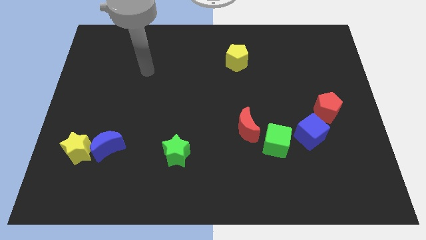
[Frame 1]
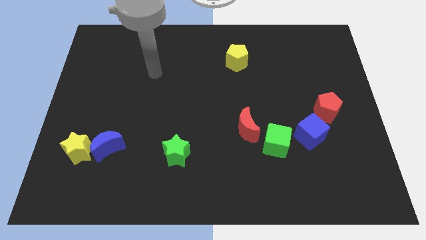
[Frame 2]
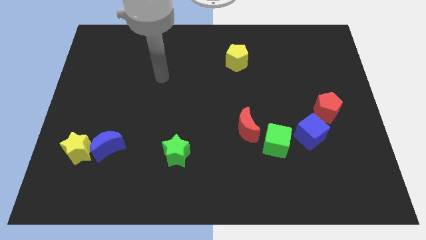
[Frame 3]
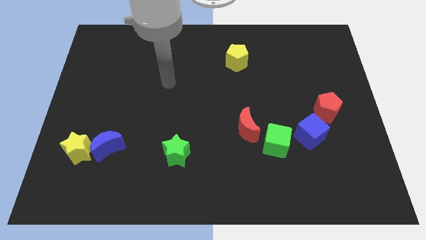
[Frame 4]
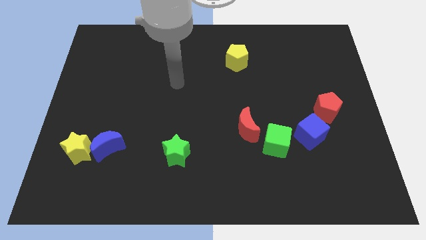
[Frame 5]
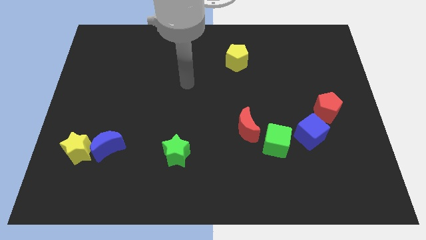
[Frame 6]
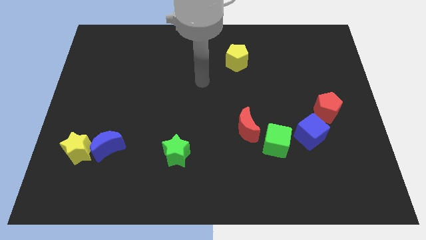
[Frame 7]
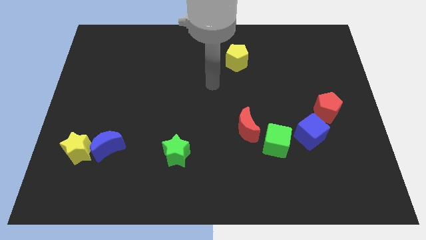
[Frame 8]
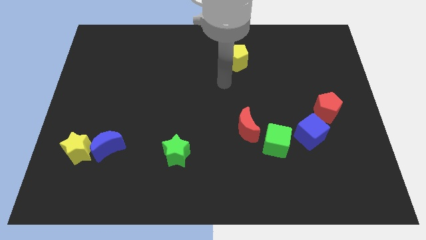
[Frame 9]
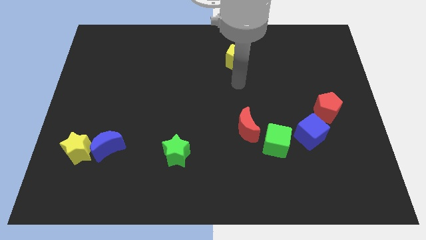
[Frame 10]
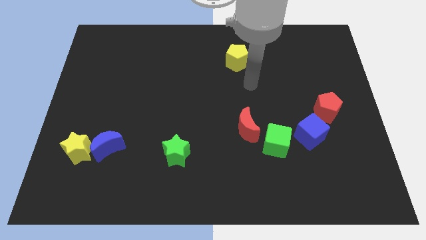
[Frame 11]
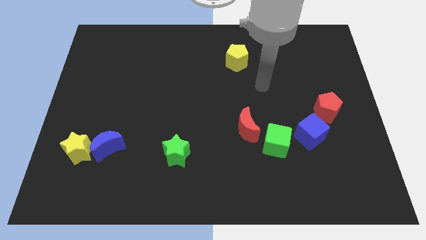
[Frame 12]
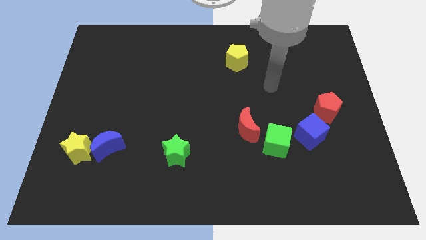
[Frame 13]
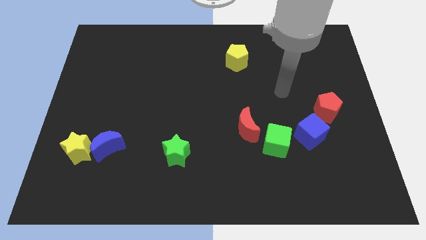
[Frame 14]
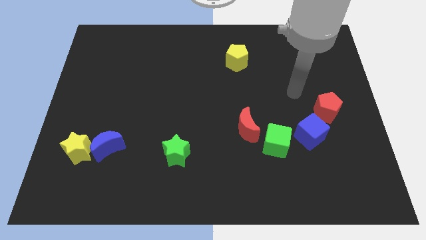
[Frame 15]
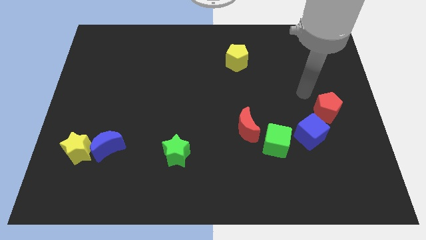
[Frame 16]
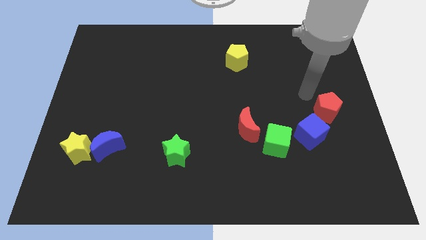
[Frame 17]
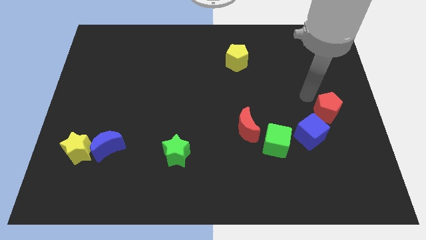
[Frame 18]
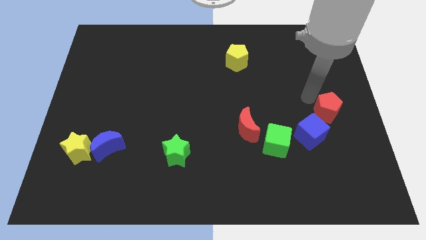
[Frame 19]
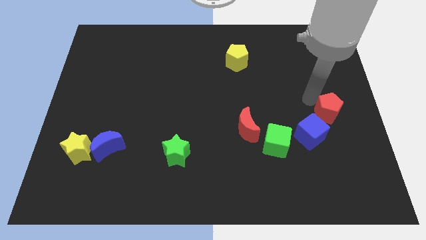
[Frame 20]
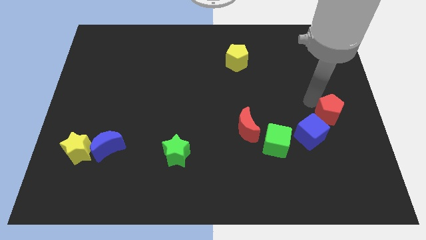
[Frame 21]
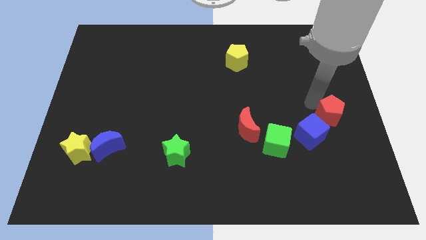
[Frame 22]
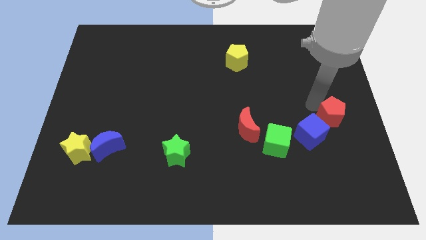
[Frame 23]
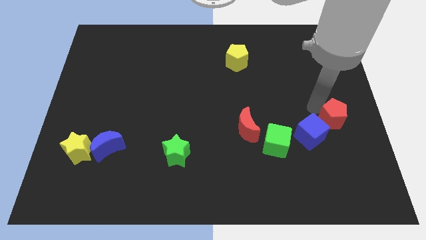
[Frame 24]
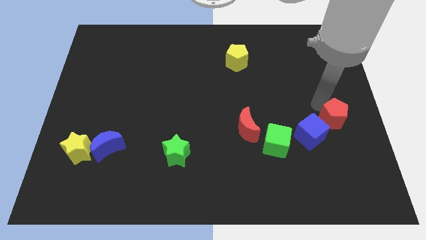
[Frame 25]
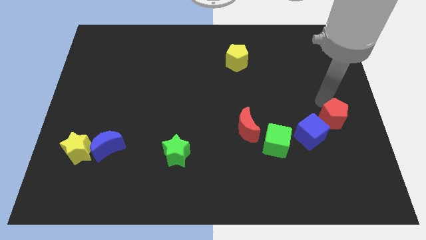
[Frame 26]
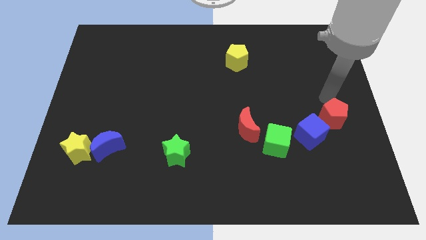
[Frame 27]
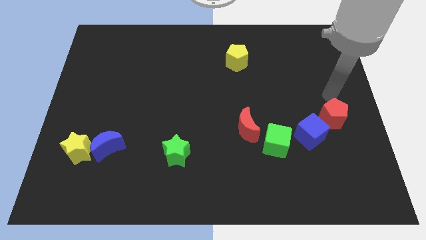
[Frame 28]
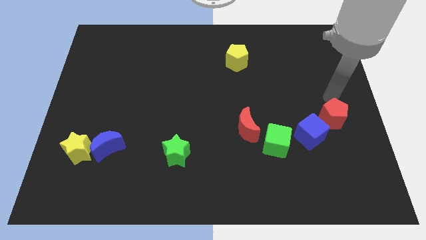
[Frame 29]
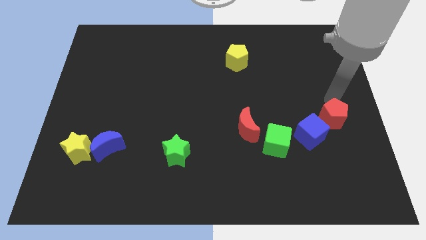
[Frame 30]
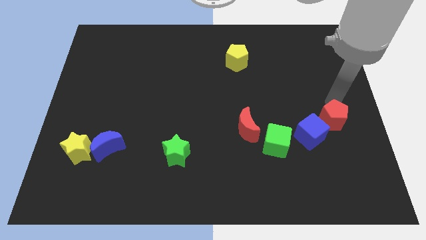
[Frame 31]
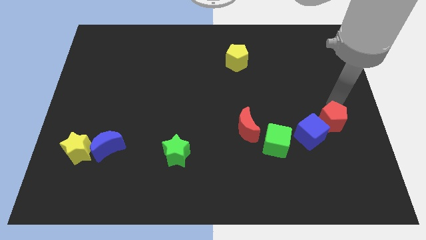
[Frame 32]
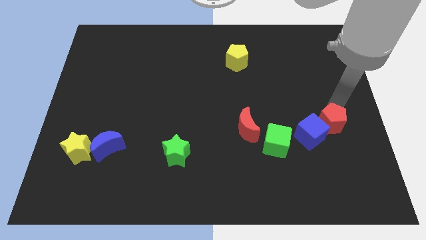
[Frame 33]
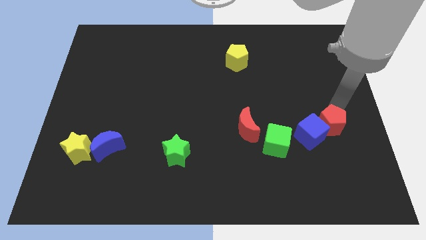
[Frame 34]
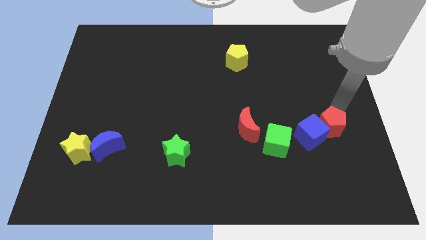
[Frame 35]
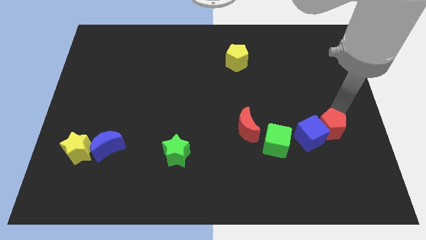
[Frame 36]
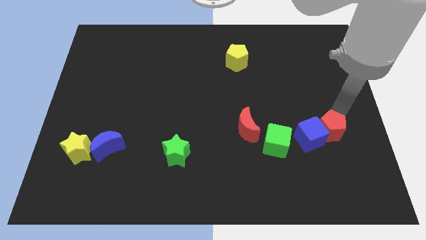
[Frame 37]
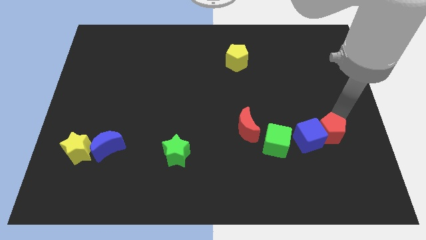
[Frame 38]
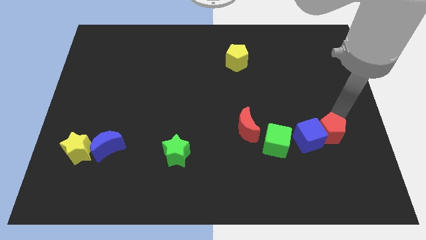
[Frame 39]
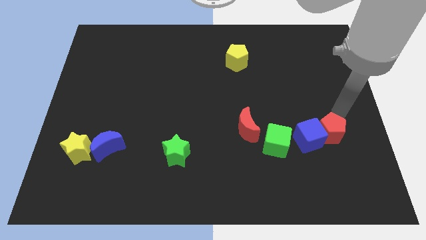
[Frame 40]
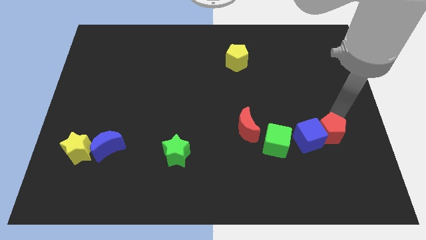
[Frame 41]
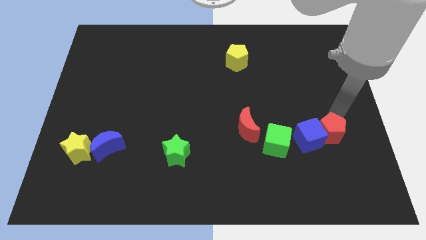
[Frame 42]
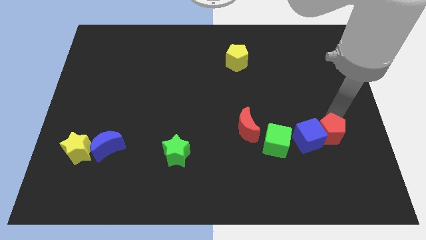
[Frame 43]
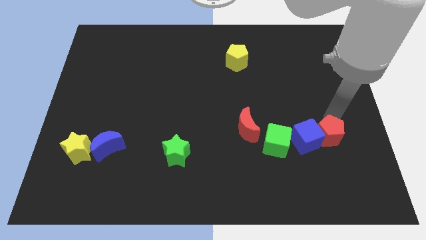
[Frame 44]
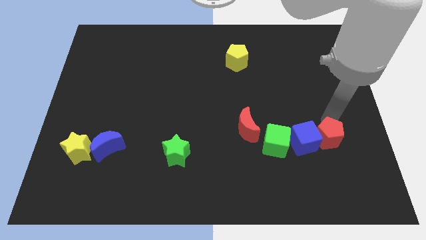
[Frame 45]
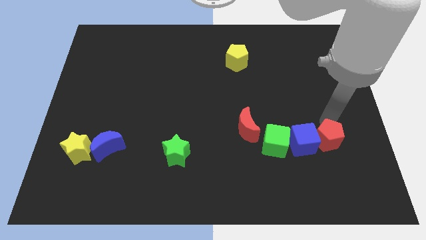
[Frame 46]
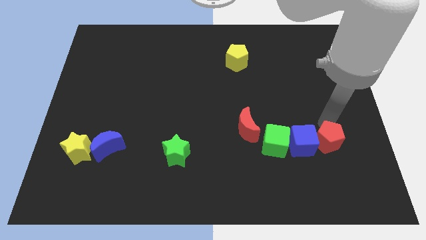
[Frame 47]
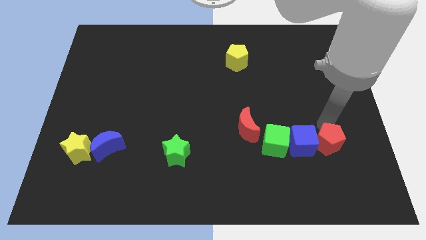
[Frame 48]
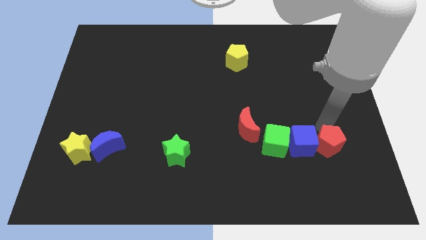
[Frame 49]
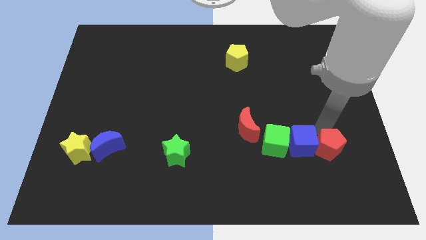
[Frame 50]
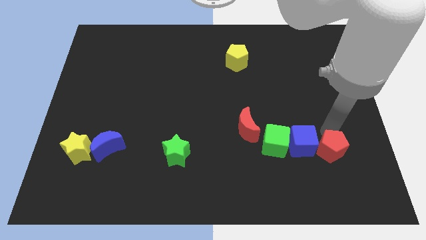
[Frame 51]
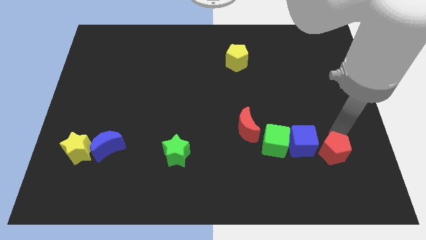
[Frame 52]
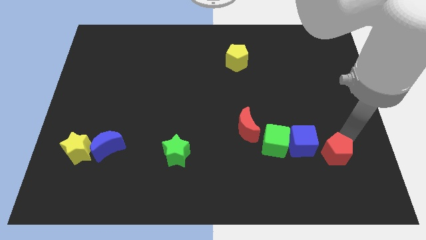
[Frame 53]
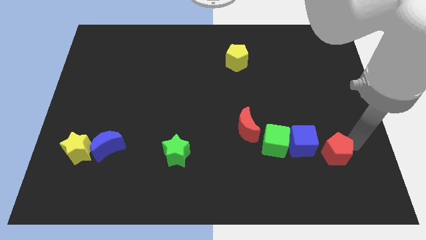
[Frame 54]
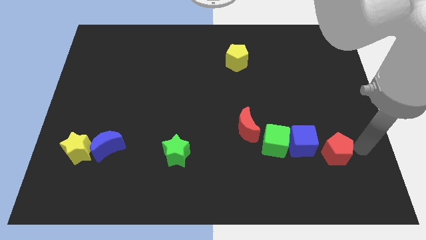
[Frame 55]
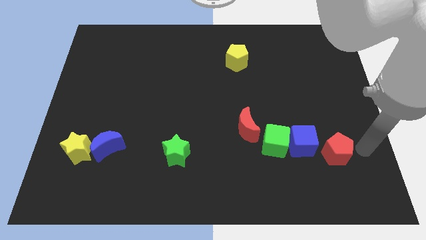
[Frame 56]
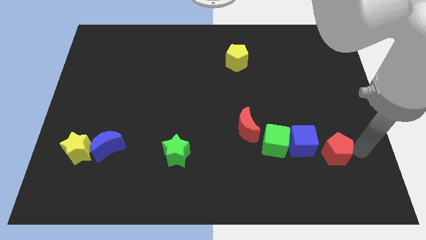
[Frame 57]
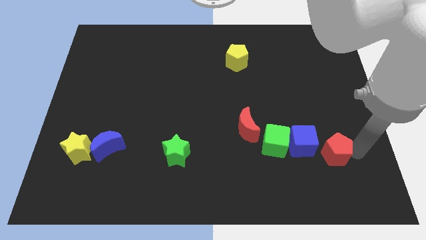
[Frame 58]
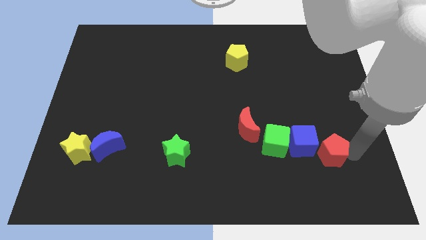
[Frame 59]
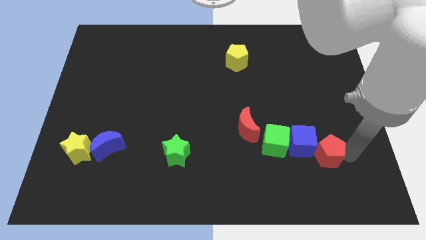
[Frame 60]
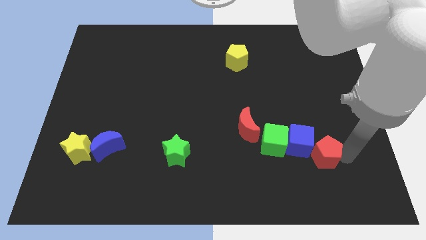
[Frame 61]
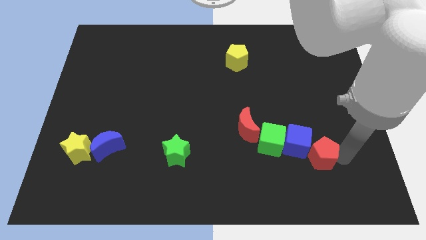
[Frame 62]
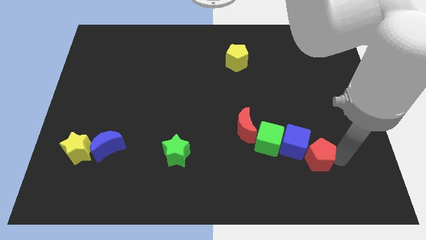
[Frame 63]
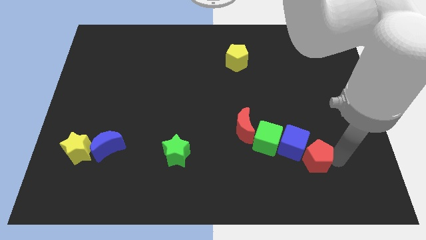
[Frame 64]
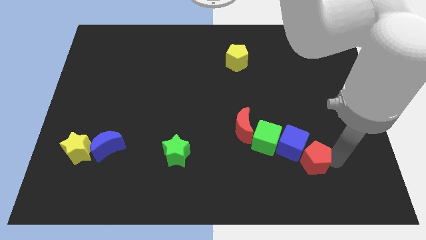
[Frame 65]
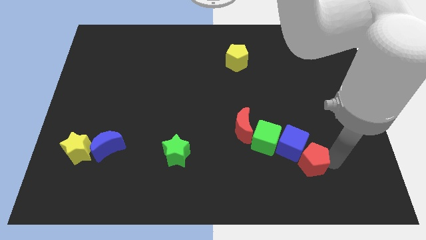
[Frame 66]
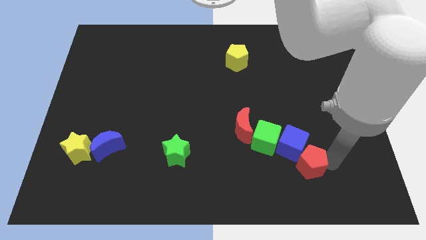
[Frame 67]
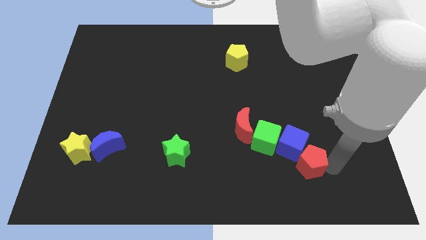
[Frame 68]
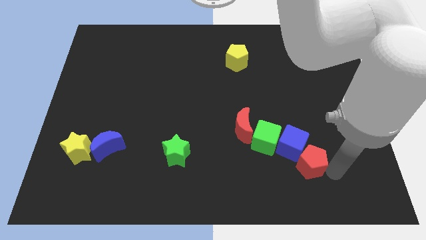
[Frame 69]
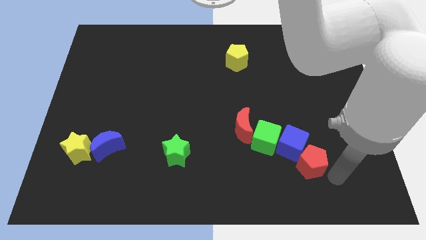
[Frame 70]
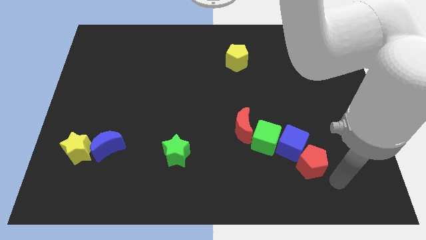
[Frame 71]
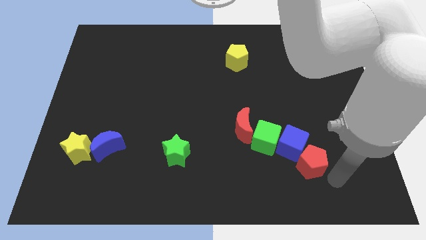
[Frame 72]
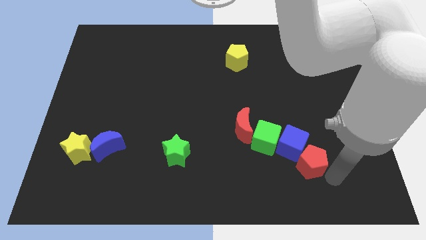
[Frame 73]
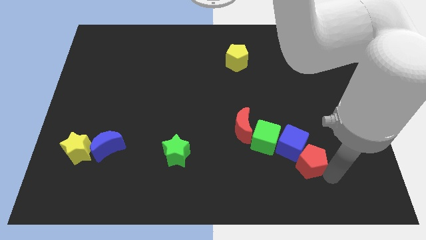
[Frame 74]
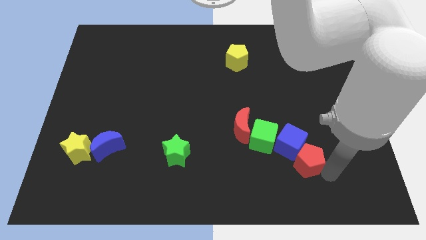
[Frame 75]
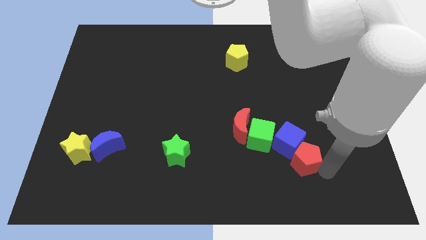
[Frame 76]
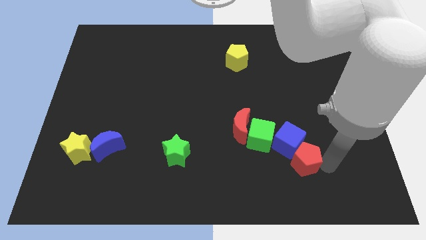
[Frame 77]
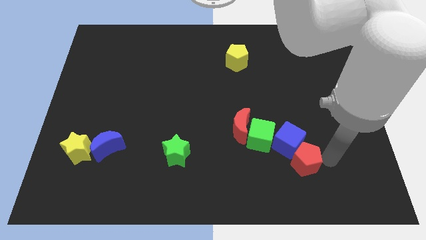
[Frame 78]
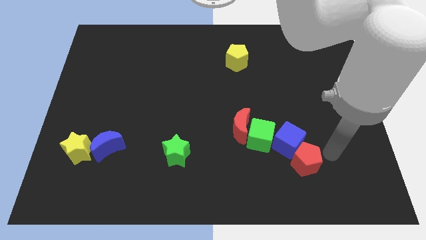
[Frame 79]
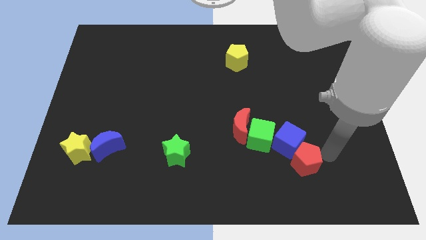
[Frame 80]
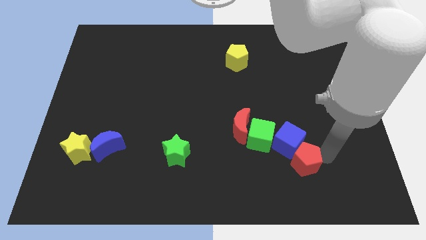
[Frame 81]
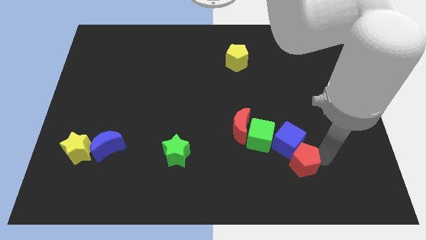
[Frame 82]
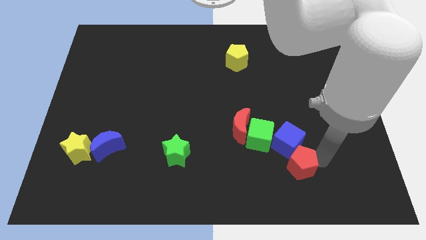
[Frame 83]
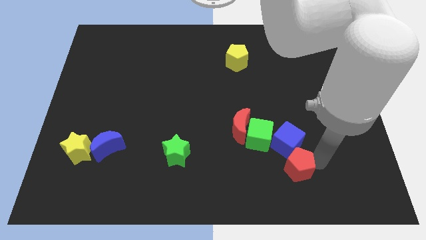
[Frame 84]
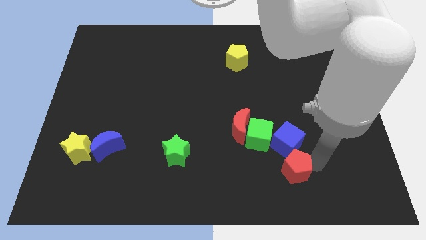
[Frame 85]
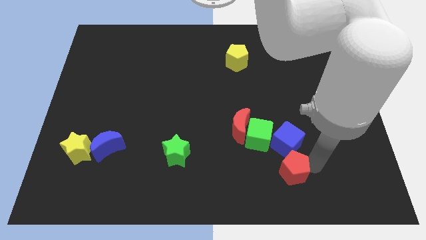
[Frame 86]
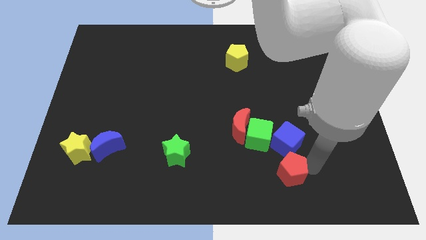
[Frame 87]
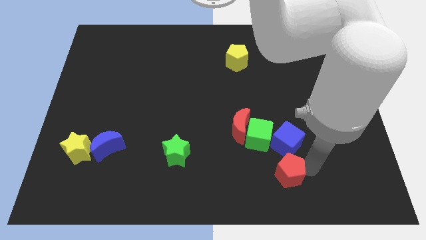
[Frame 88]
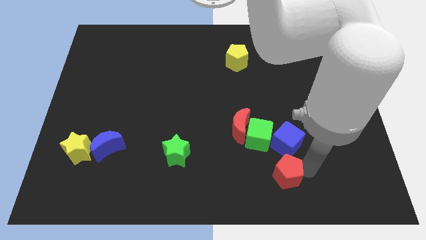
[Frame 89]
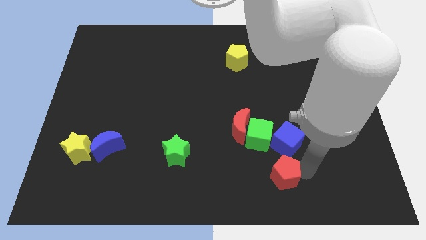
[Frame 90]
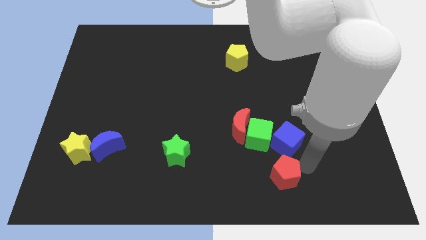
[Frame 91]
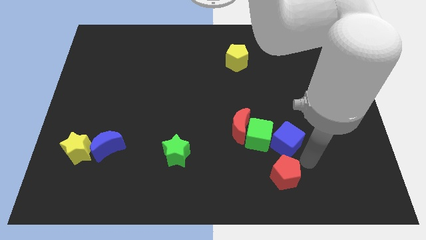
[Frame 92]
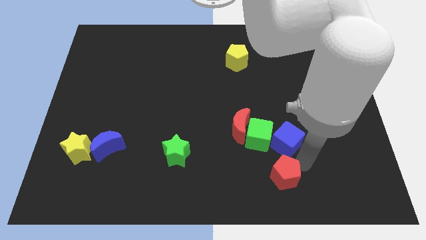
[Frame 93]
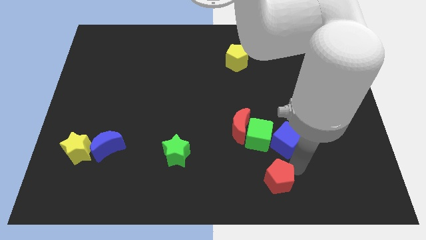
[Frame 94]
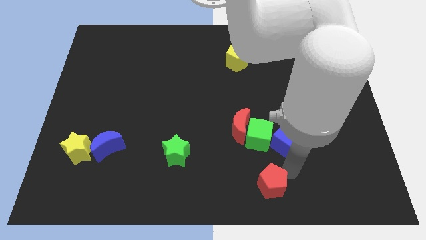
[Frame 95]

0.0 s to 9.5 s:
move the red pentagon to the bottom side
